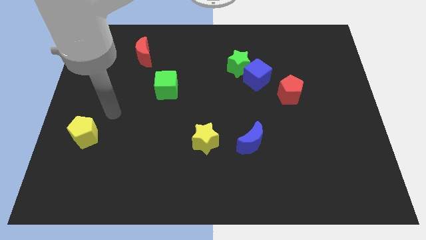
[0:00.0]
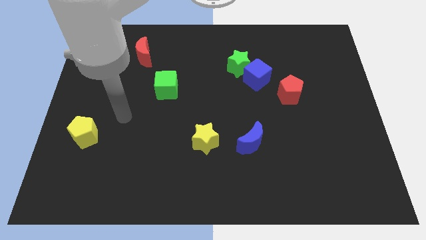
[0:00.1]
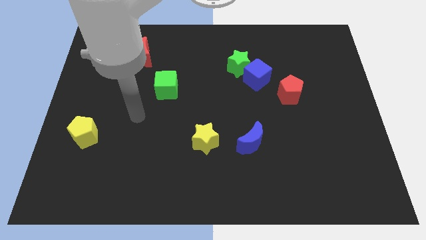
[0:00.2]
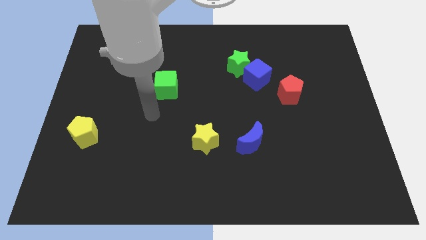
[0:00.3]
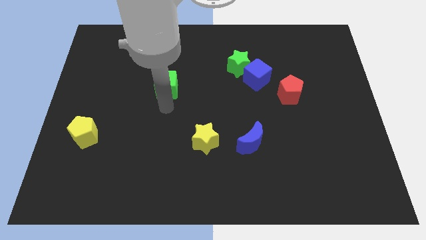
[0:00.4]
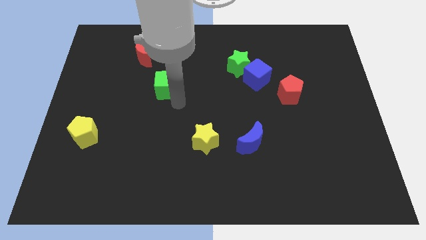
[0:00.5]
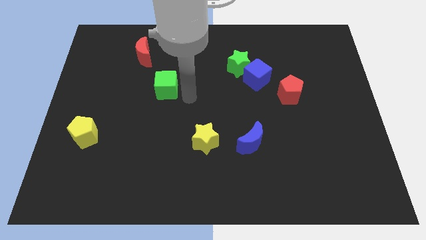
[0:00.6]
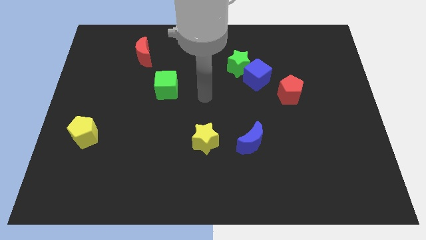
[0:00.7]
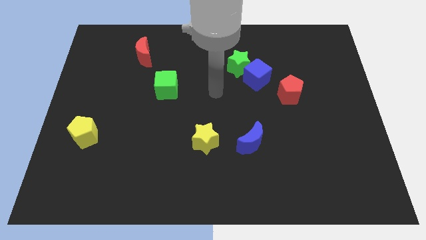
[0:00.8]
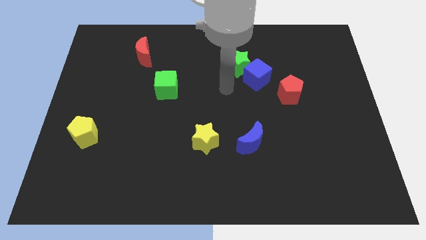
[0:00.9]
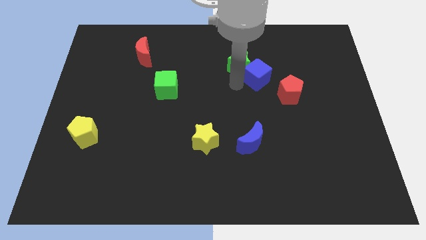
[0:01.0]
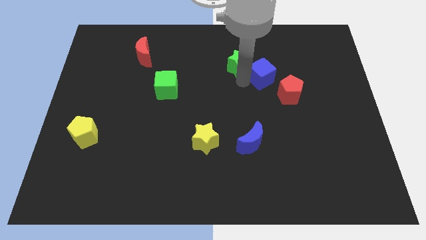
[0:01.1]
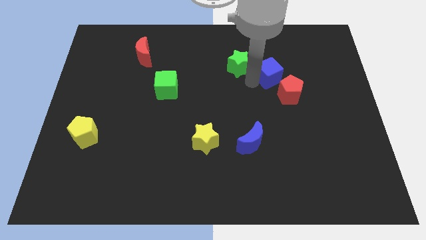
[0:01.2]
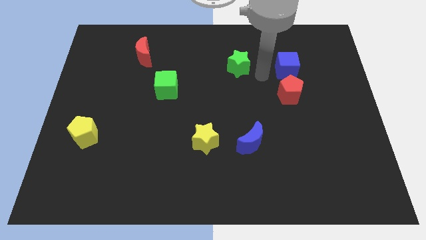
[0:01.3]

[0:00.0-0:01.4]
pull the green star apart from the blue cube

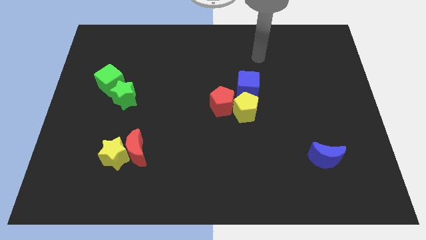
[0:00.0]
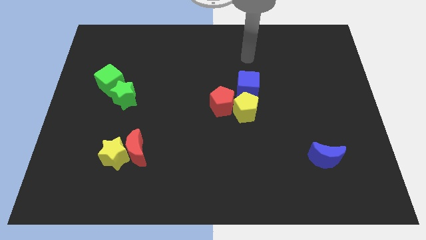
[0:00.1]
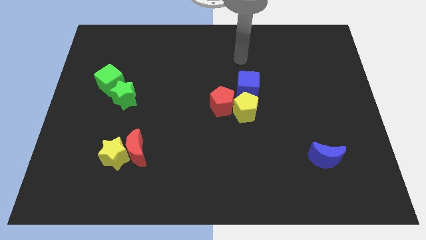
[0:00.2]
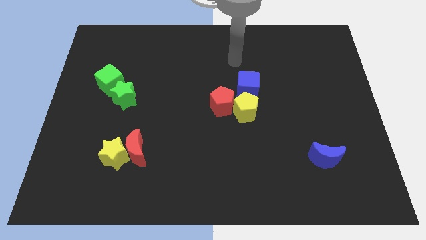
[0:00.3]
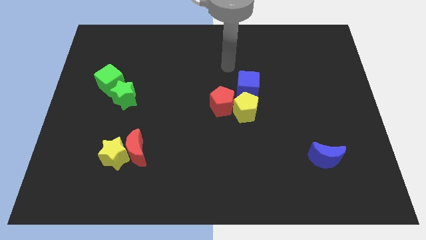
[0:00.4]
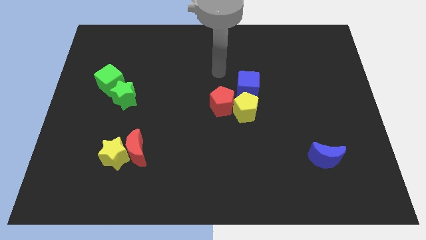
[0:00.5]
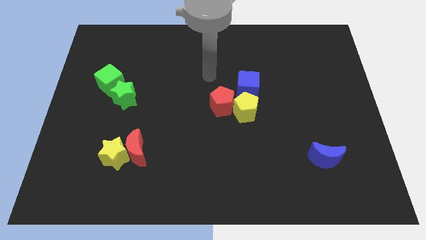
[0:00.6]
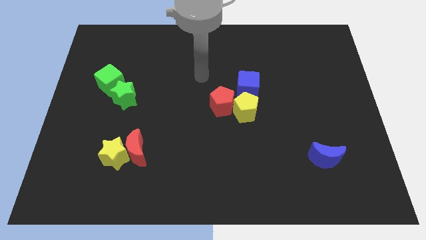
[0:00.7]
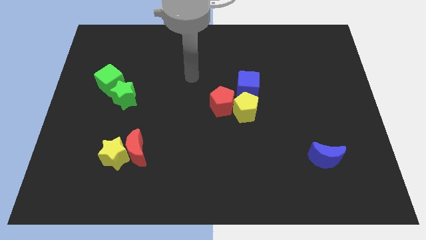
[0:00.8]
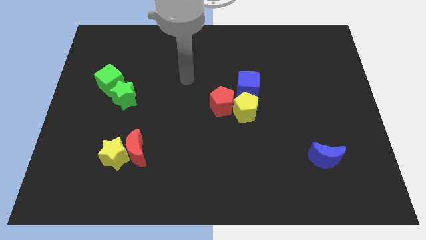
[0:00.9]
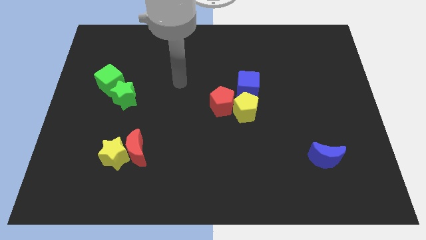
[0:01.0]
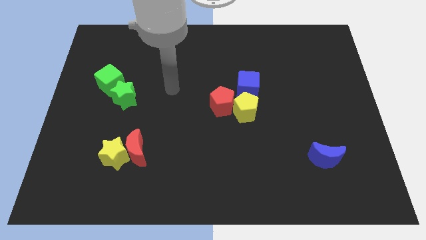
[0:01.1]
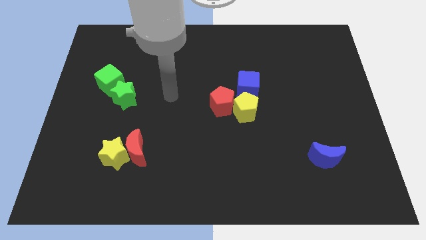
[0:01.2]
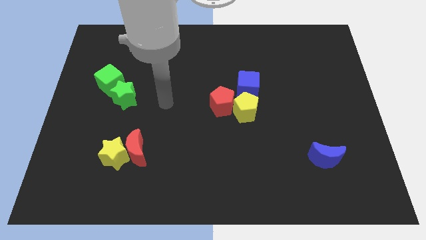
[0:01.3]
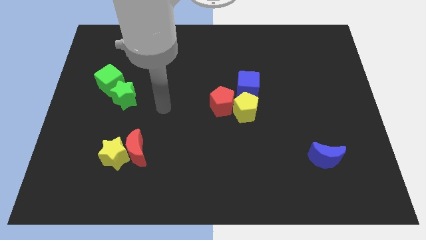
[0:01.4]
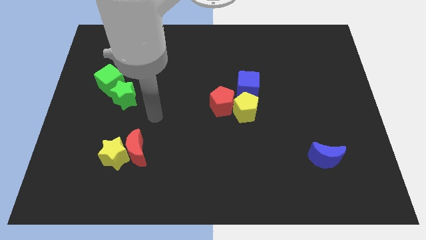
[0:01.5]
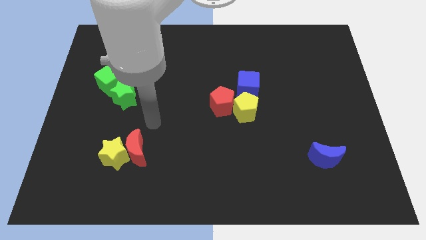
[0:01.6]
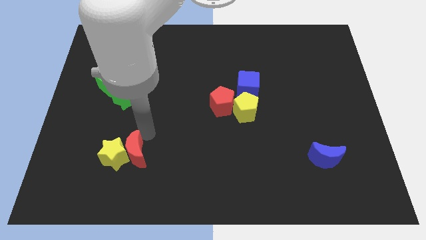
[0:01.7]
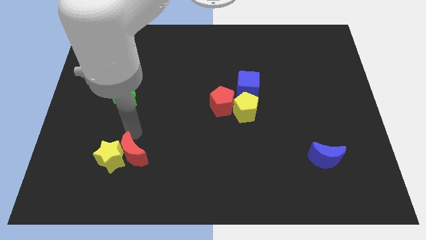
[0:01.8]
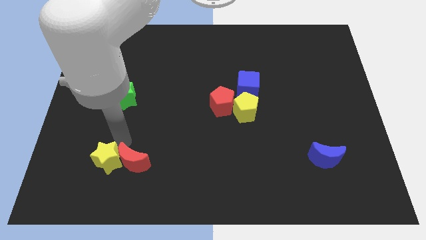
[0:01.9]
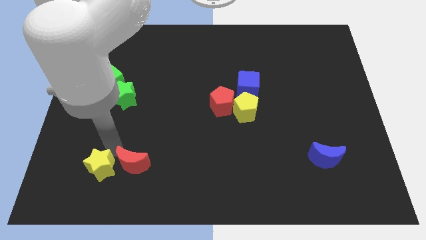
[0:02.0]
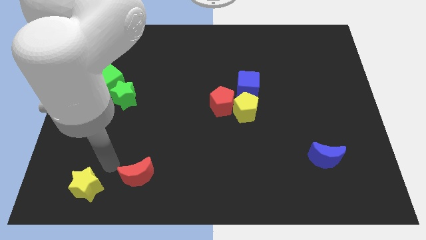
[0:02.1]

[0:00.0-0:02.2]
separate the red moon from the yellow star

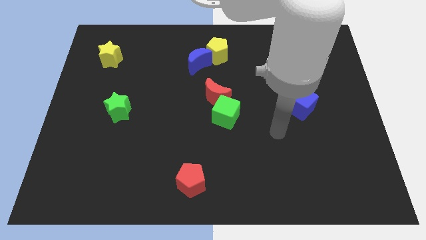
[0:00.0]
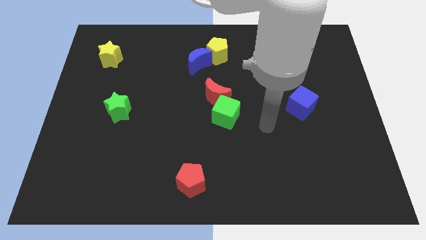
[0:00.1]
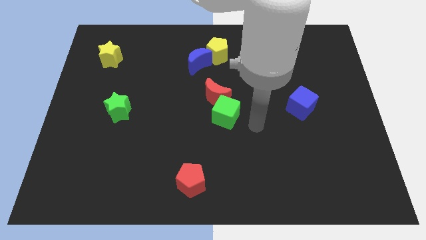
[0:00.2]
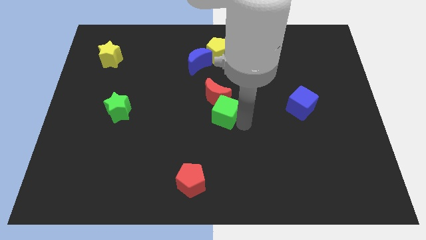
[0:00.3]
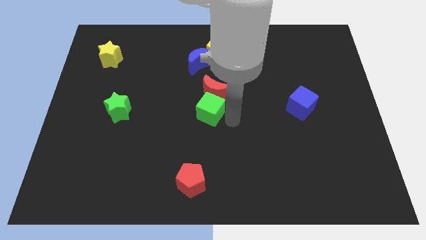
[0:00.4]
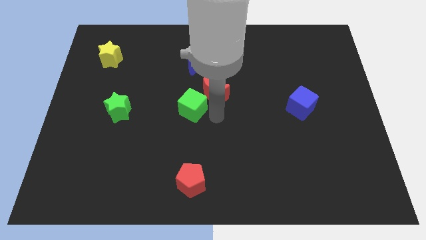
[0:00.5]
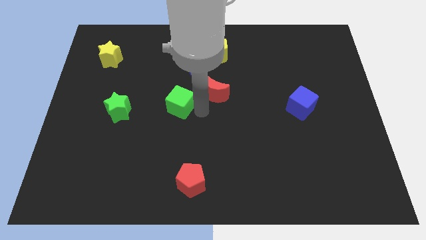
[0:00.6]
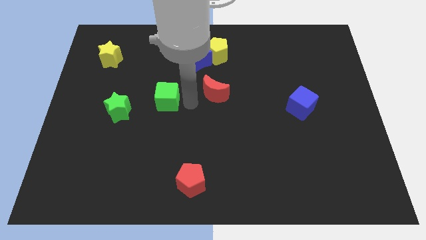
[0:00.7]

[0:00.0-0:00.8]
move the red moon away from the green cube

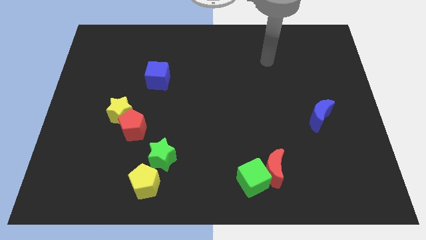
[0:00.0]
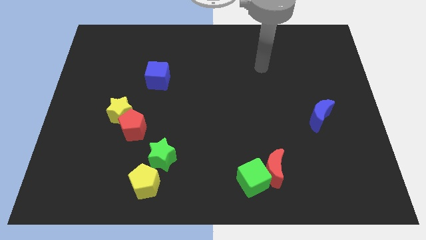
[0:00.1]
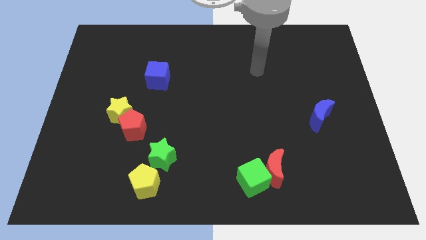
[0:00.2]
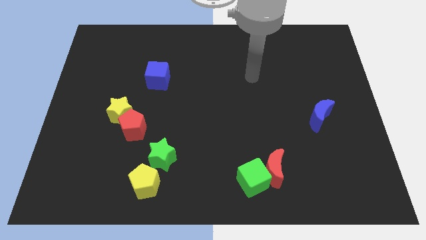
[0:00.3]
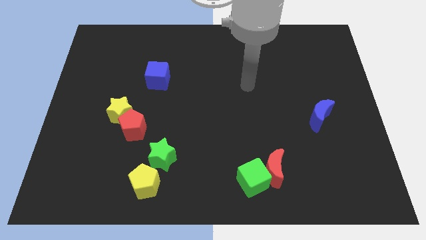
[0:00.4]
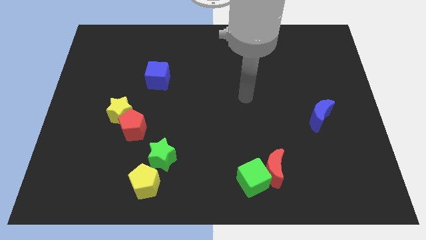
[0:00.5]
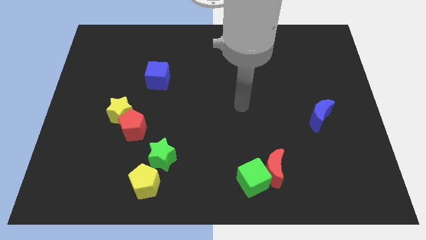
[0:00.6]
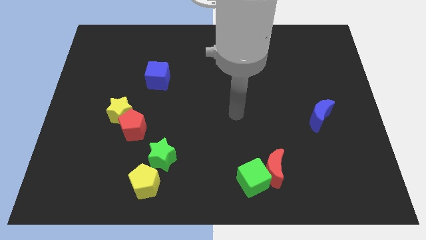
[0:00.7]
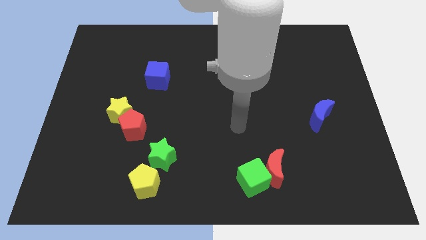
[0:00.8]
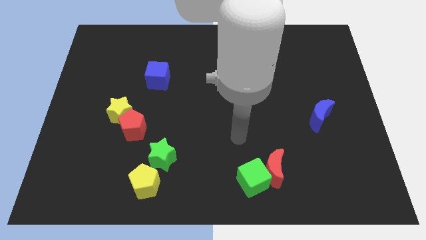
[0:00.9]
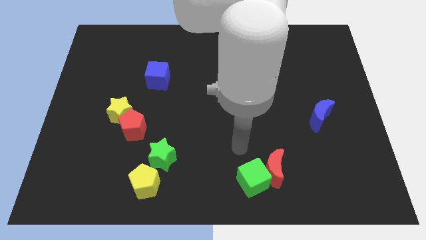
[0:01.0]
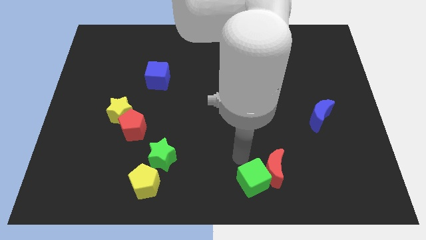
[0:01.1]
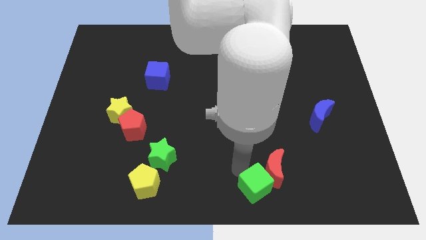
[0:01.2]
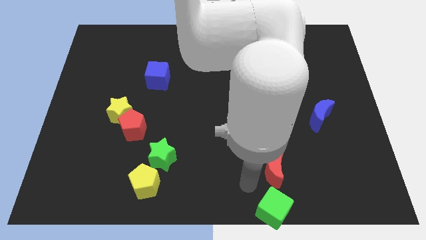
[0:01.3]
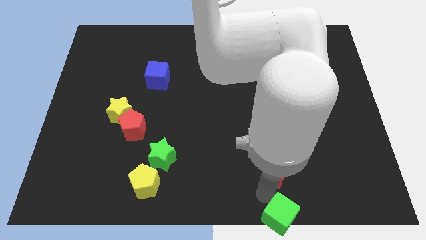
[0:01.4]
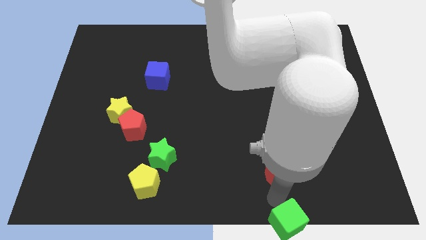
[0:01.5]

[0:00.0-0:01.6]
separate the red moon from the green cube

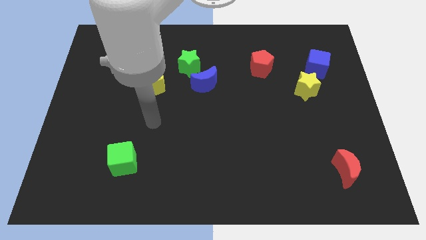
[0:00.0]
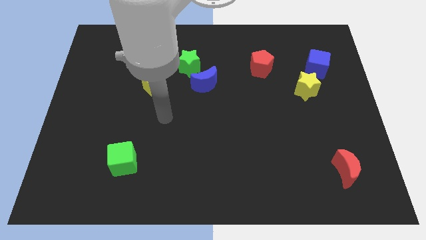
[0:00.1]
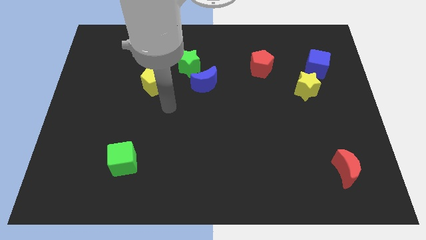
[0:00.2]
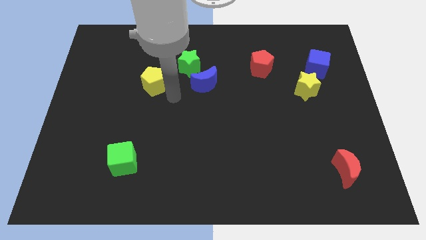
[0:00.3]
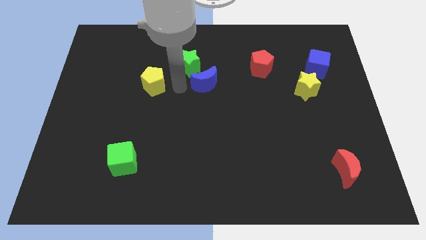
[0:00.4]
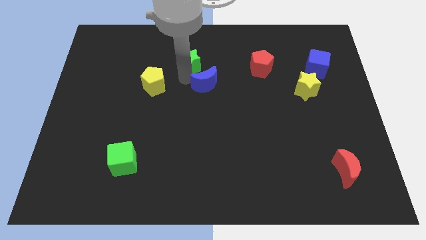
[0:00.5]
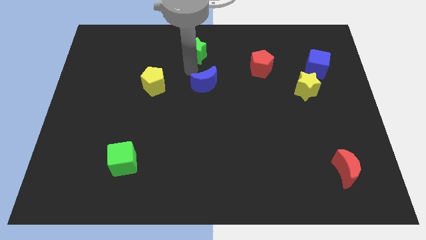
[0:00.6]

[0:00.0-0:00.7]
pull the blue moon apart from the green star

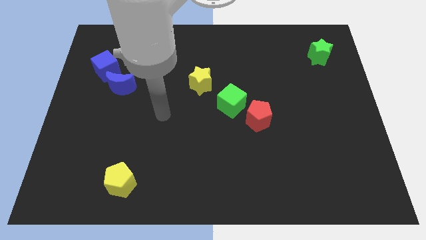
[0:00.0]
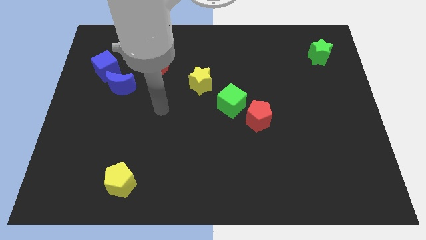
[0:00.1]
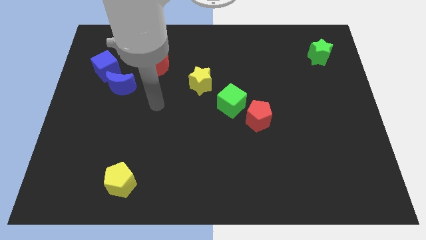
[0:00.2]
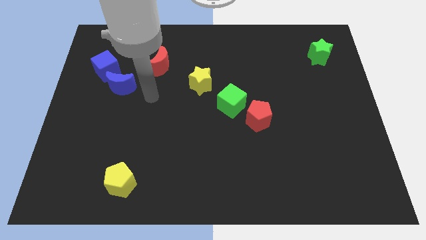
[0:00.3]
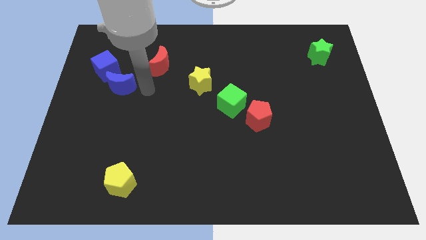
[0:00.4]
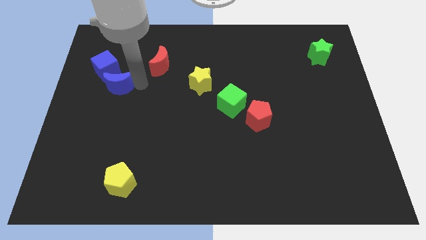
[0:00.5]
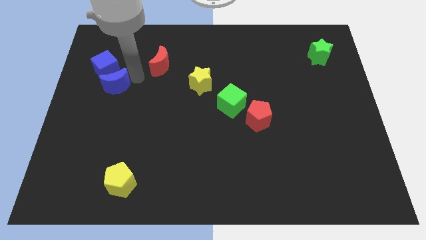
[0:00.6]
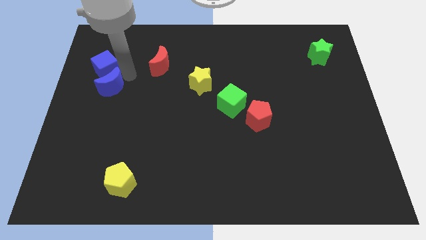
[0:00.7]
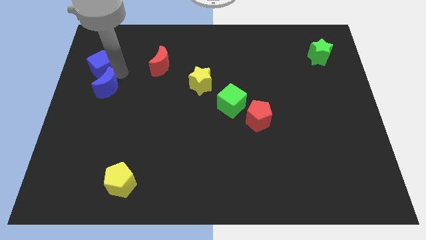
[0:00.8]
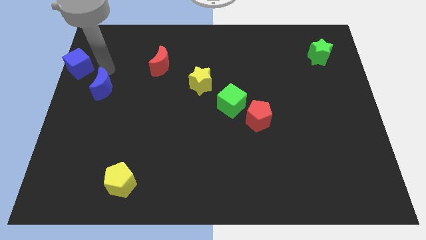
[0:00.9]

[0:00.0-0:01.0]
separate the blue moon from the blue cube

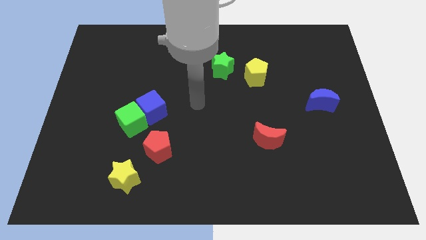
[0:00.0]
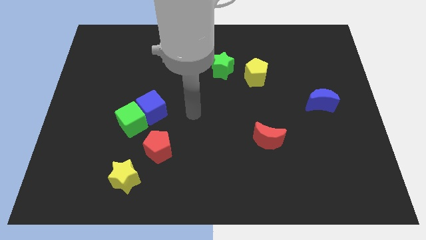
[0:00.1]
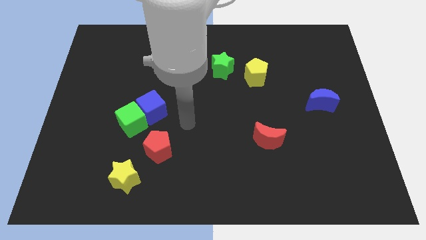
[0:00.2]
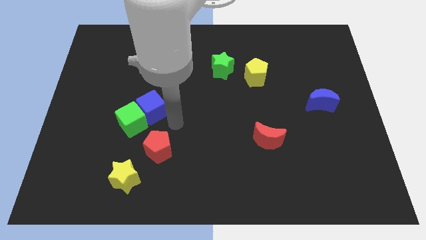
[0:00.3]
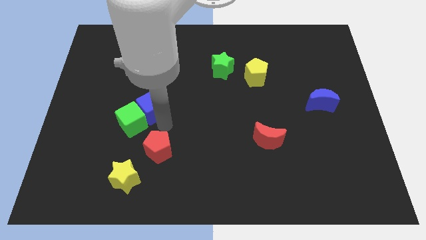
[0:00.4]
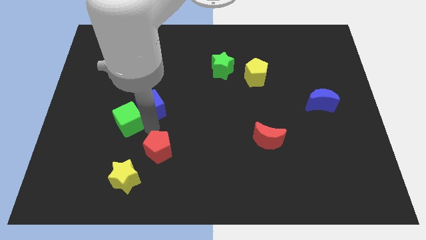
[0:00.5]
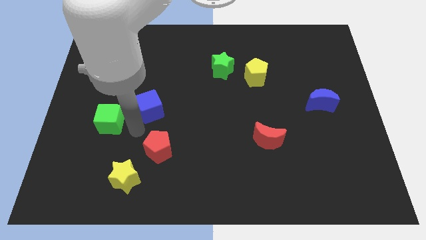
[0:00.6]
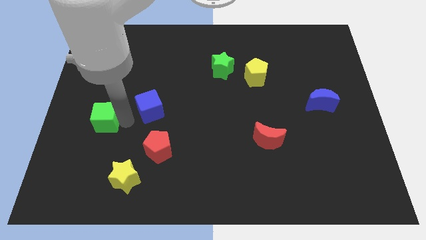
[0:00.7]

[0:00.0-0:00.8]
separate the blue cube from the green cube

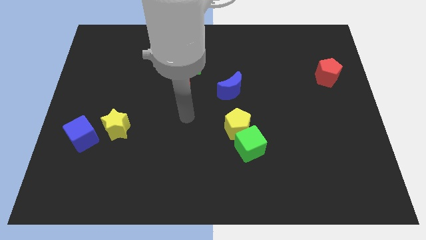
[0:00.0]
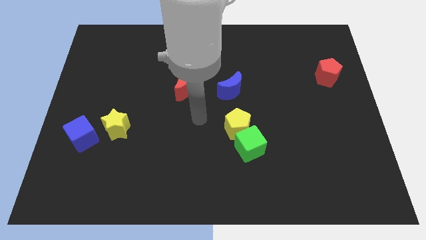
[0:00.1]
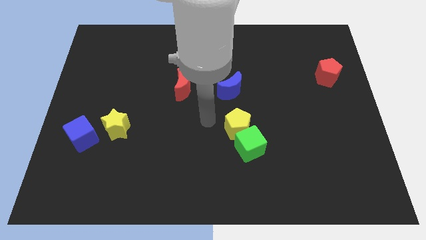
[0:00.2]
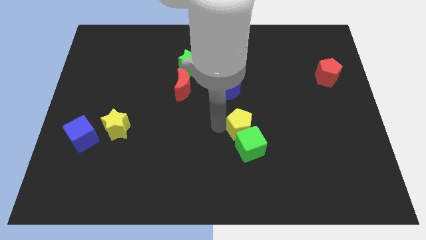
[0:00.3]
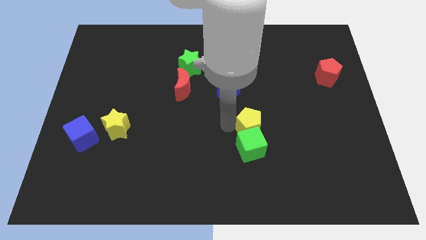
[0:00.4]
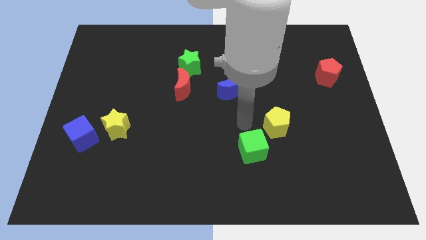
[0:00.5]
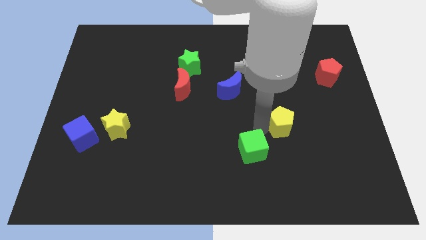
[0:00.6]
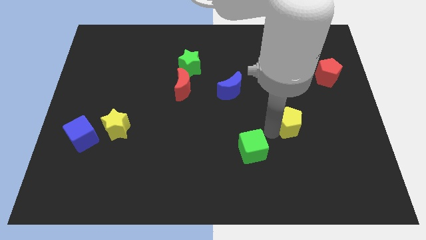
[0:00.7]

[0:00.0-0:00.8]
separate the green cube from the yellow pentagon

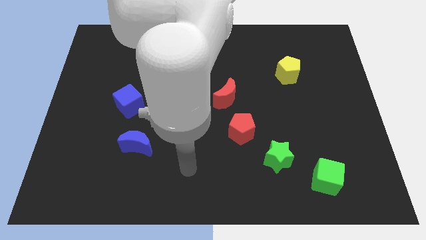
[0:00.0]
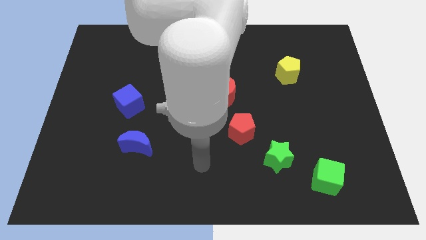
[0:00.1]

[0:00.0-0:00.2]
move the green star away from the red pentagon
